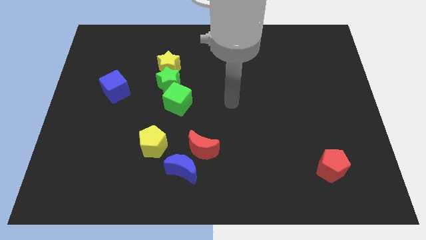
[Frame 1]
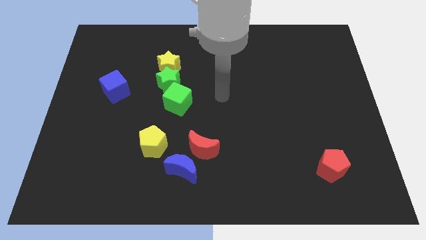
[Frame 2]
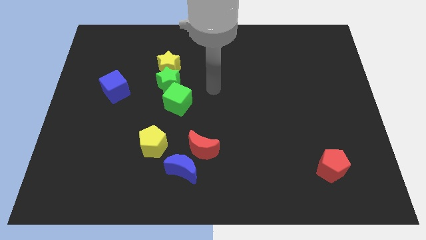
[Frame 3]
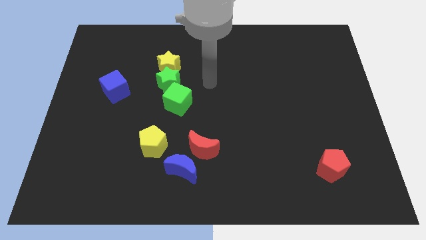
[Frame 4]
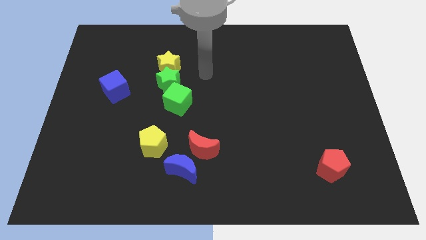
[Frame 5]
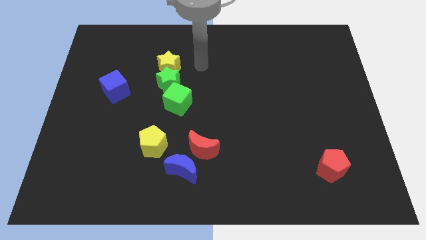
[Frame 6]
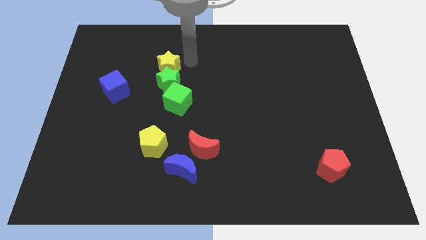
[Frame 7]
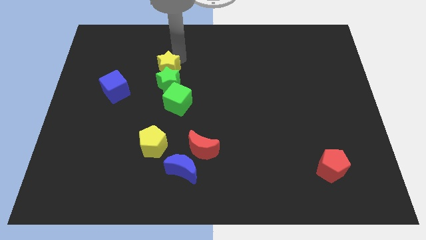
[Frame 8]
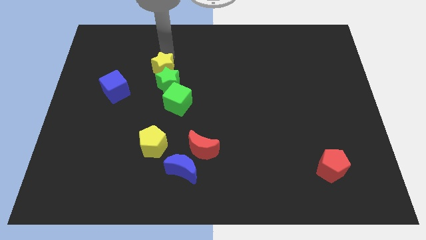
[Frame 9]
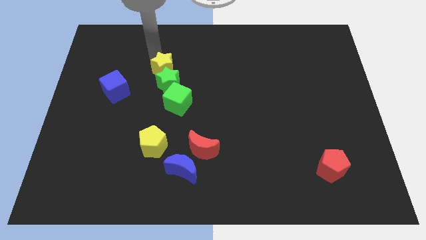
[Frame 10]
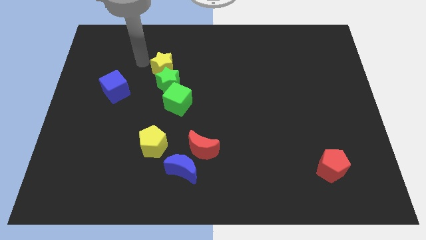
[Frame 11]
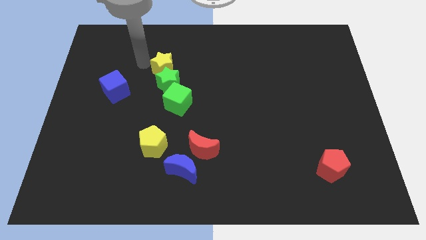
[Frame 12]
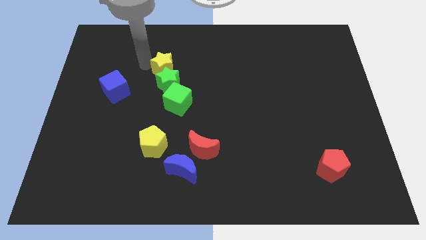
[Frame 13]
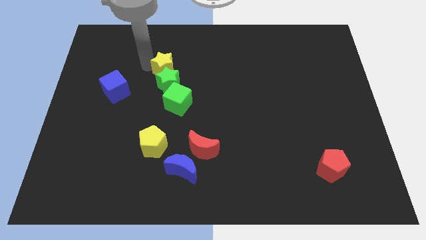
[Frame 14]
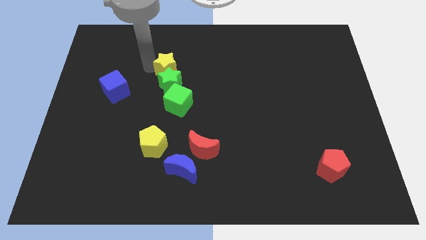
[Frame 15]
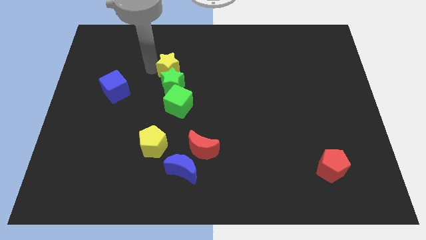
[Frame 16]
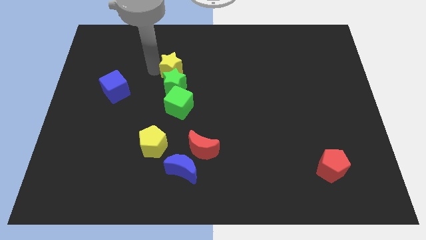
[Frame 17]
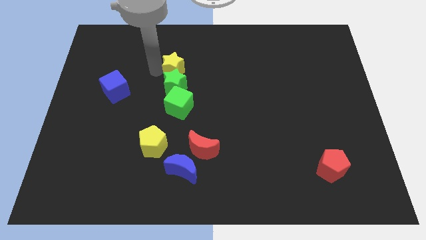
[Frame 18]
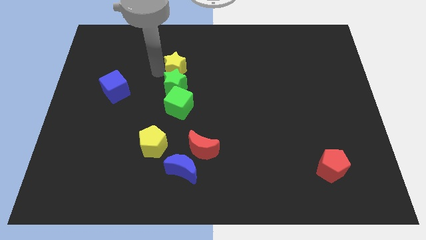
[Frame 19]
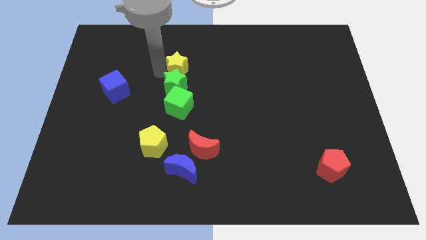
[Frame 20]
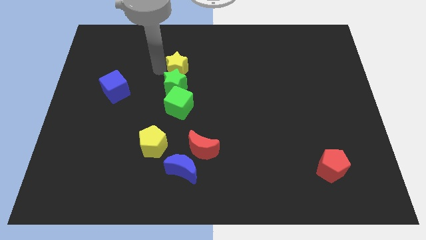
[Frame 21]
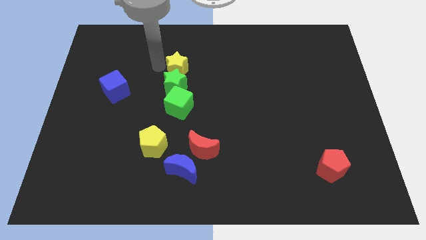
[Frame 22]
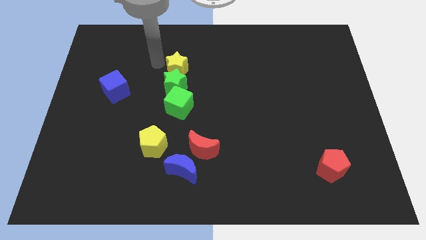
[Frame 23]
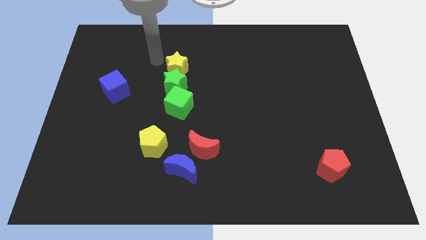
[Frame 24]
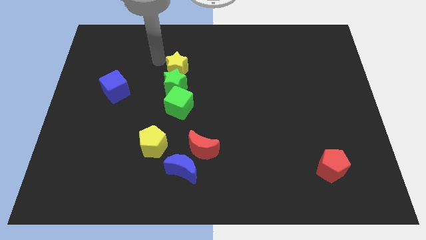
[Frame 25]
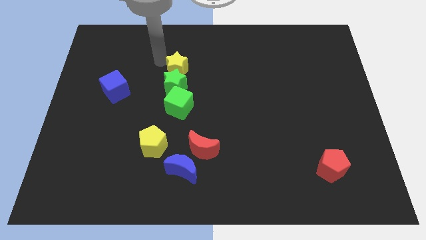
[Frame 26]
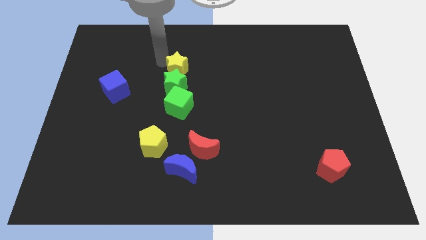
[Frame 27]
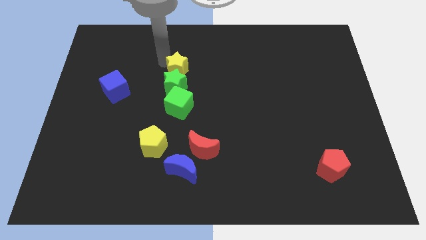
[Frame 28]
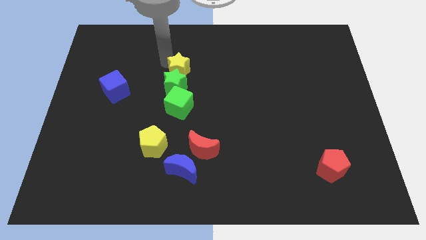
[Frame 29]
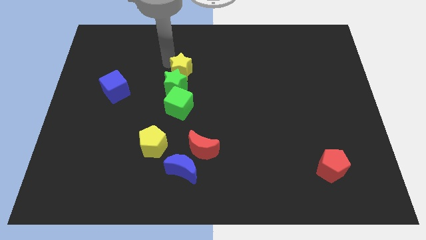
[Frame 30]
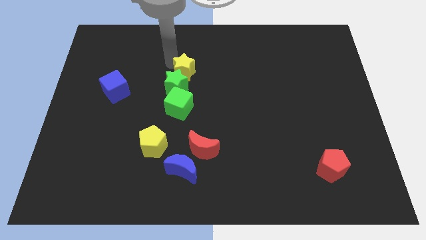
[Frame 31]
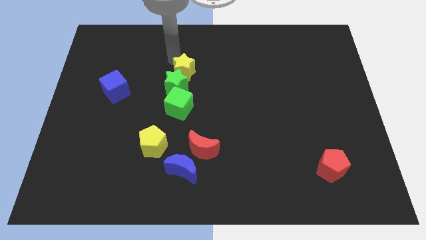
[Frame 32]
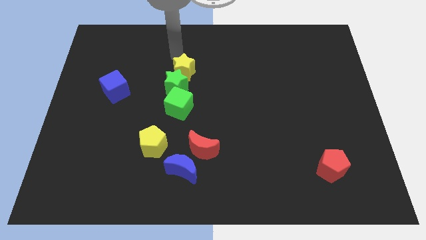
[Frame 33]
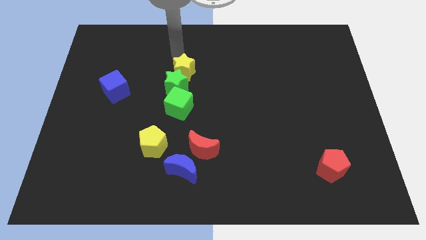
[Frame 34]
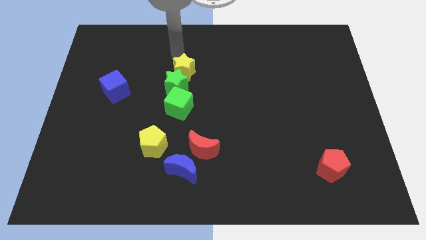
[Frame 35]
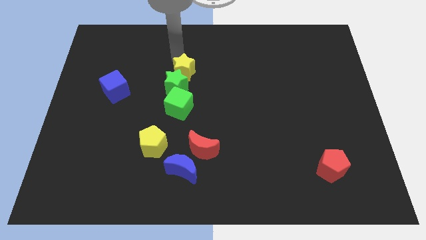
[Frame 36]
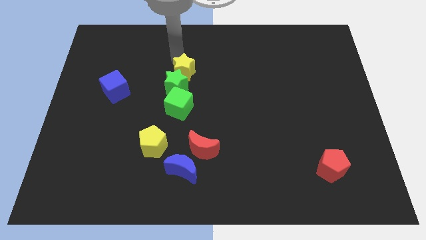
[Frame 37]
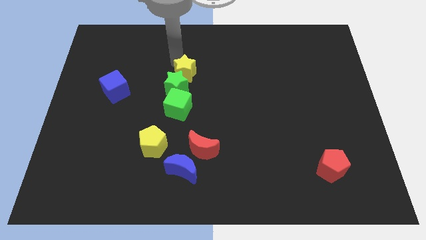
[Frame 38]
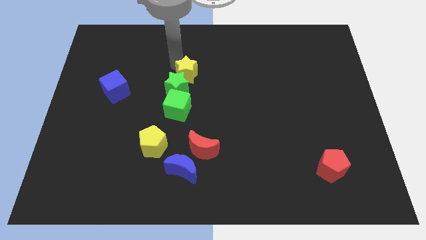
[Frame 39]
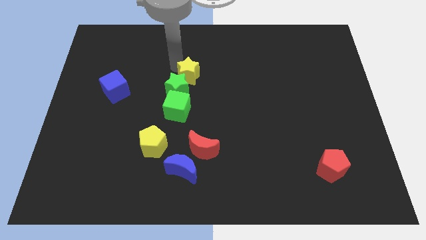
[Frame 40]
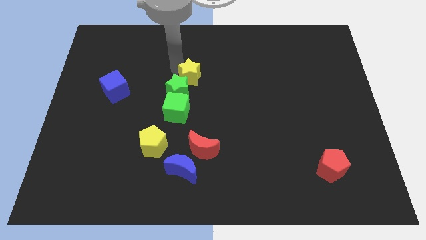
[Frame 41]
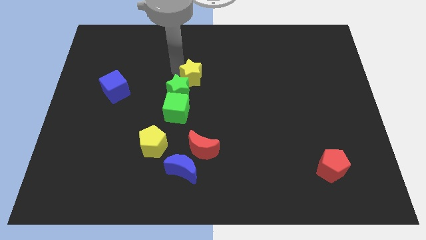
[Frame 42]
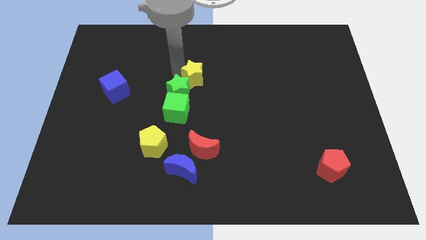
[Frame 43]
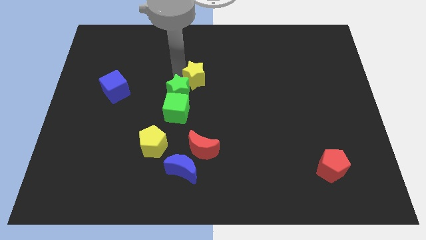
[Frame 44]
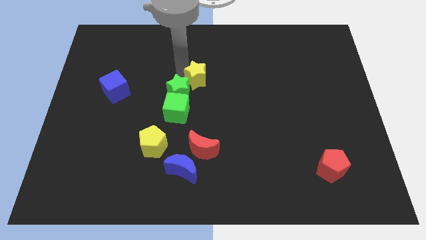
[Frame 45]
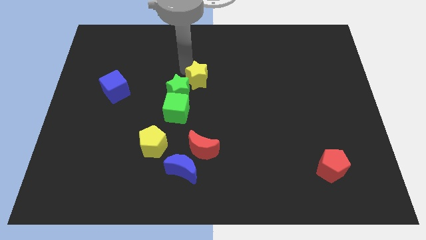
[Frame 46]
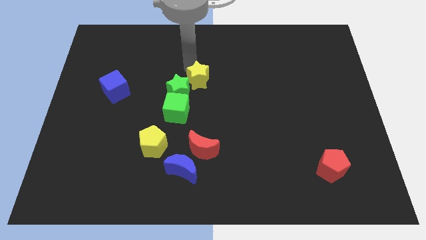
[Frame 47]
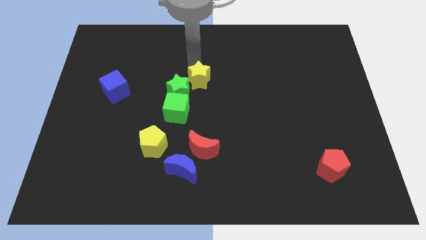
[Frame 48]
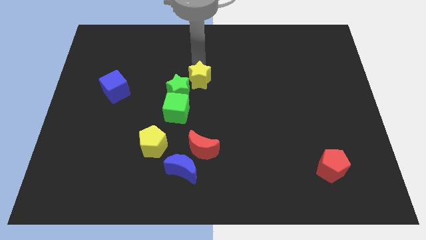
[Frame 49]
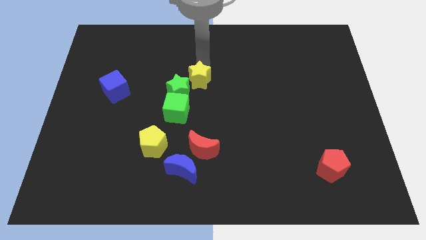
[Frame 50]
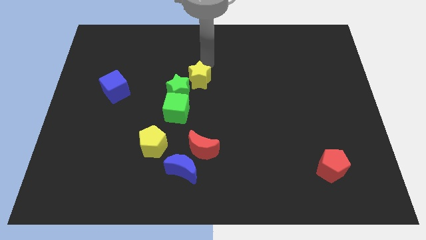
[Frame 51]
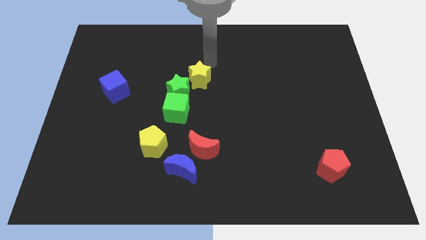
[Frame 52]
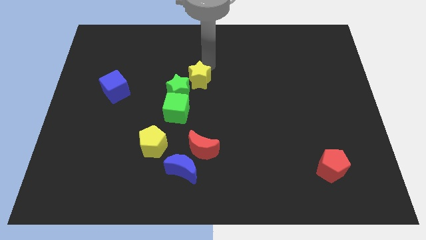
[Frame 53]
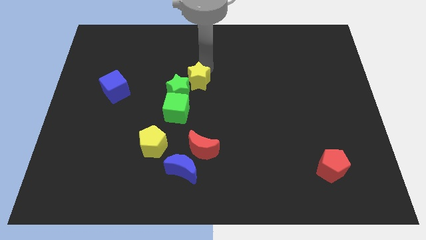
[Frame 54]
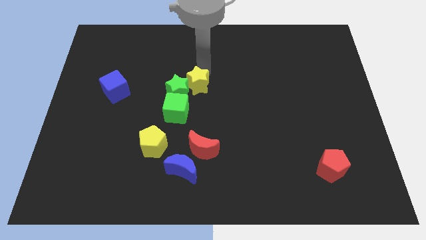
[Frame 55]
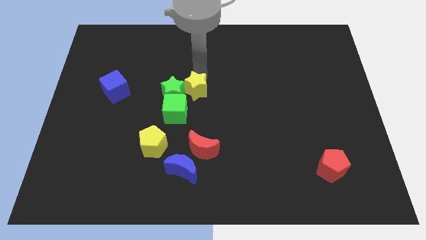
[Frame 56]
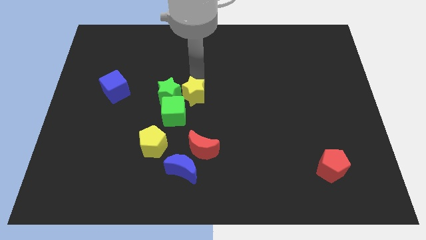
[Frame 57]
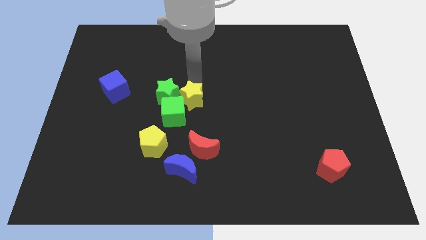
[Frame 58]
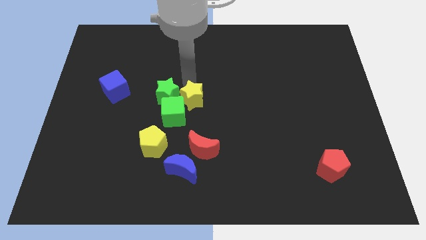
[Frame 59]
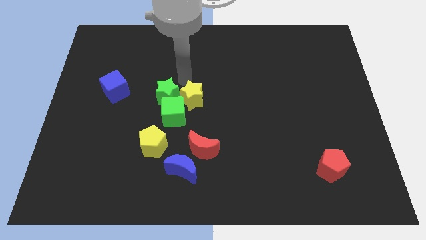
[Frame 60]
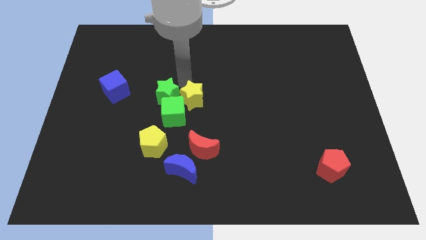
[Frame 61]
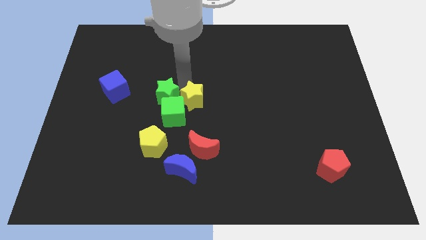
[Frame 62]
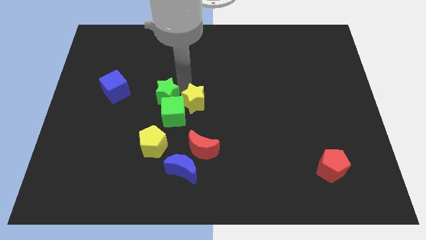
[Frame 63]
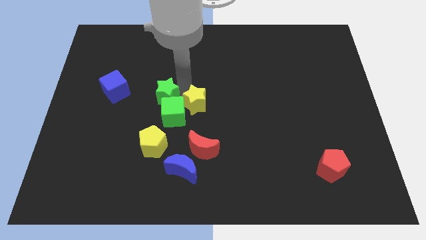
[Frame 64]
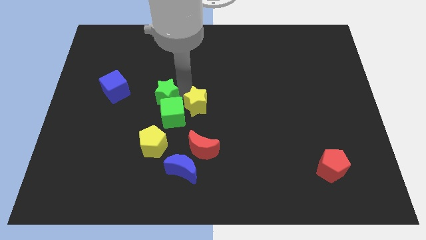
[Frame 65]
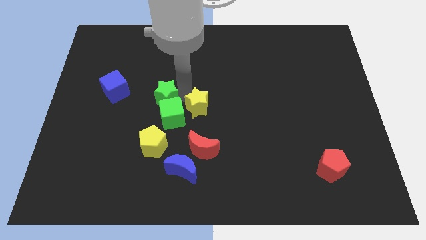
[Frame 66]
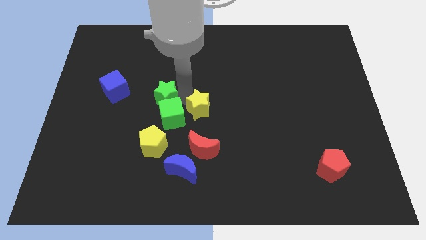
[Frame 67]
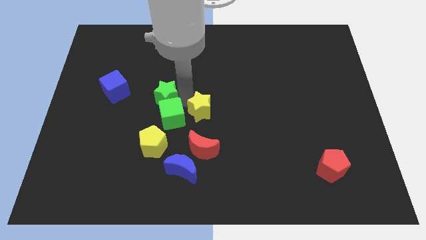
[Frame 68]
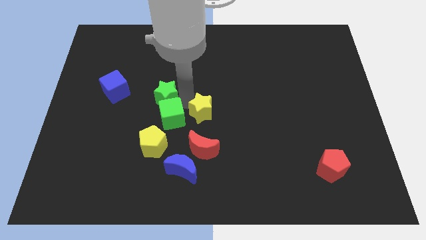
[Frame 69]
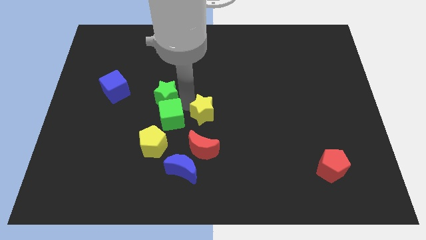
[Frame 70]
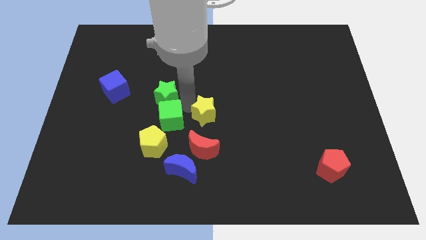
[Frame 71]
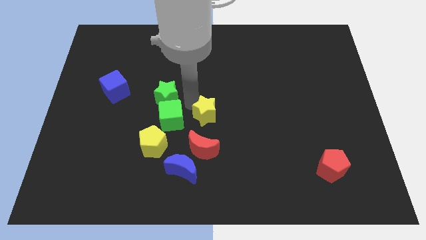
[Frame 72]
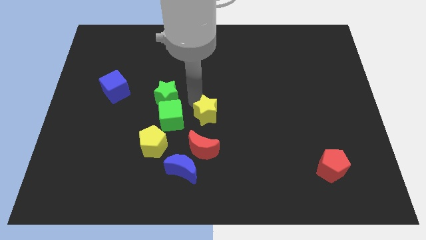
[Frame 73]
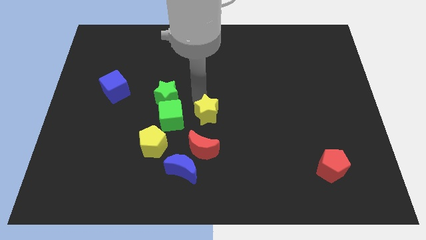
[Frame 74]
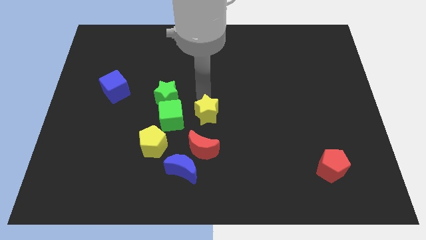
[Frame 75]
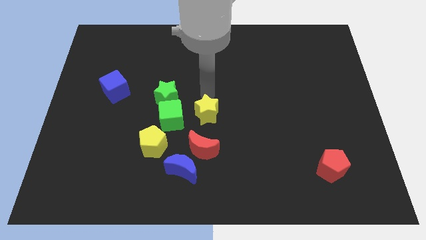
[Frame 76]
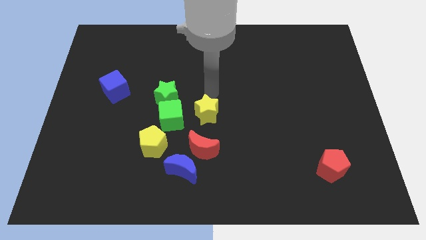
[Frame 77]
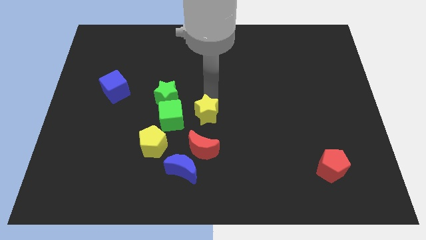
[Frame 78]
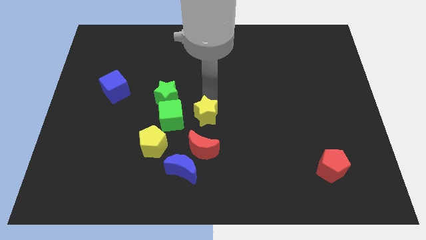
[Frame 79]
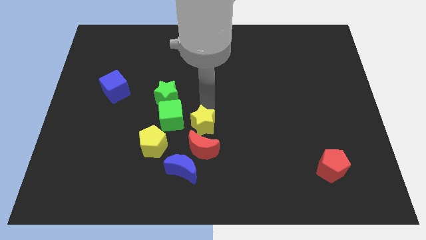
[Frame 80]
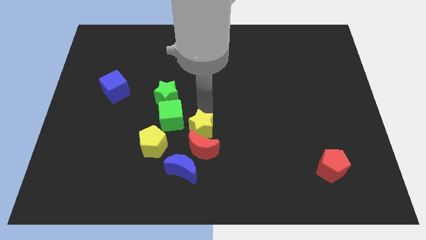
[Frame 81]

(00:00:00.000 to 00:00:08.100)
push the yellow star towards the red moon
